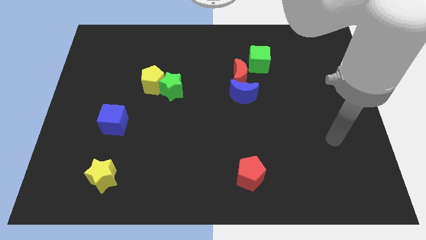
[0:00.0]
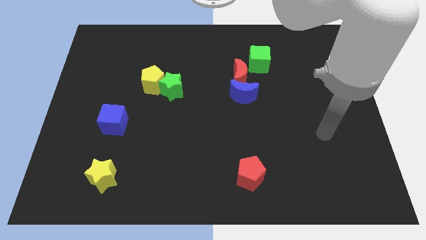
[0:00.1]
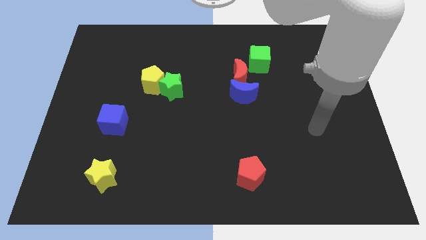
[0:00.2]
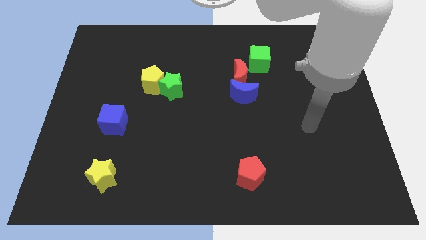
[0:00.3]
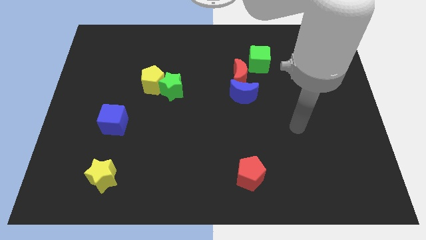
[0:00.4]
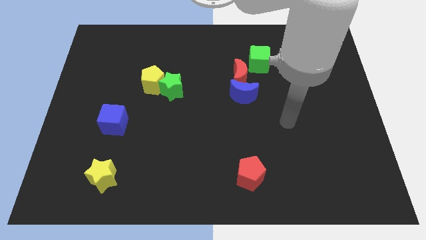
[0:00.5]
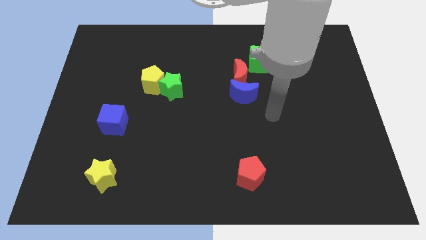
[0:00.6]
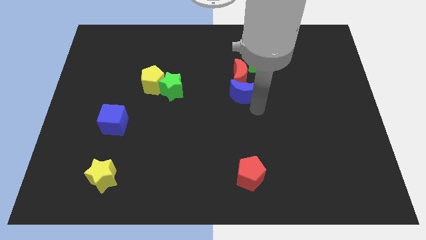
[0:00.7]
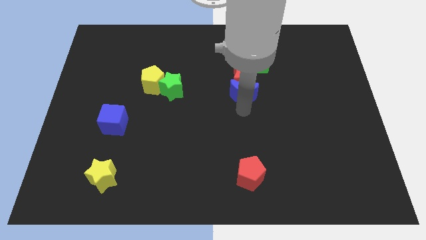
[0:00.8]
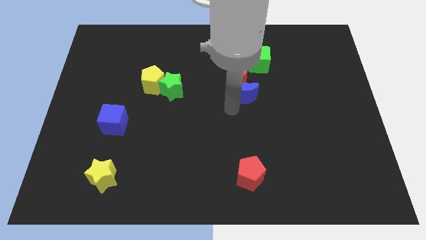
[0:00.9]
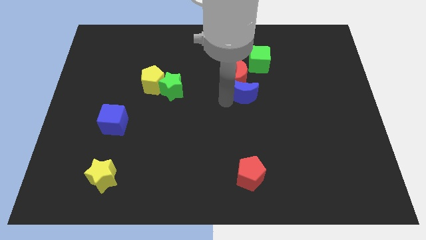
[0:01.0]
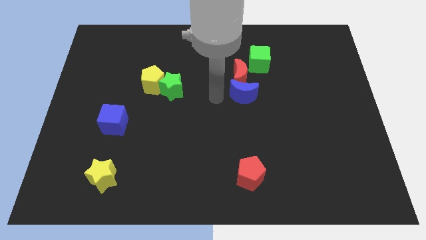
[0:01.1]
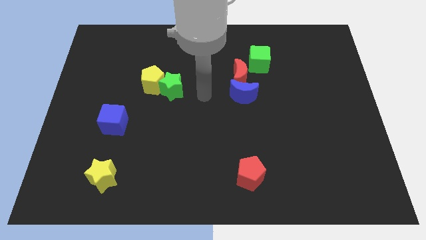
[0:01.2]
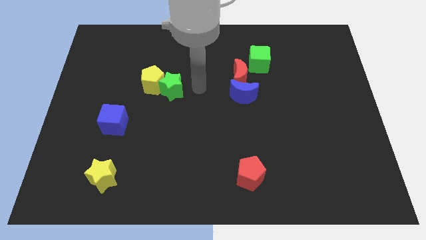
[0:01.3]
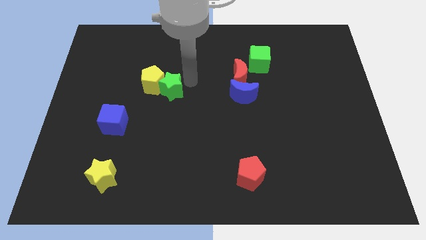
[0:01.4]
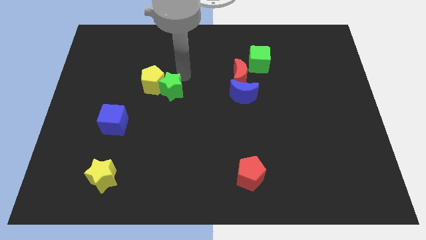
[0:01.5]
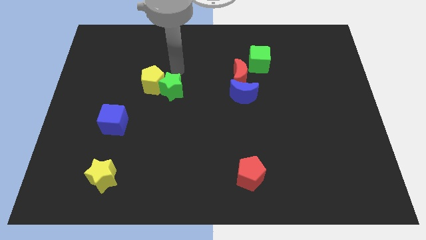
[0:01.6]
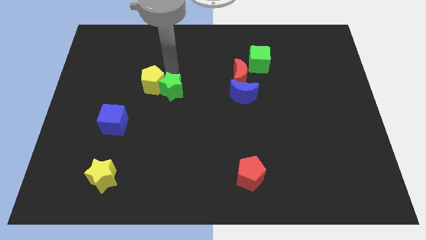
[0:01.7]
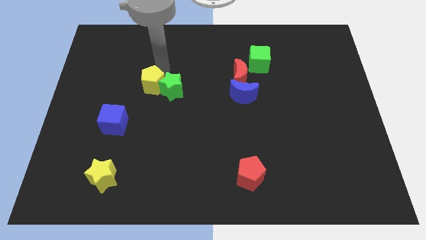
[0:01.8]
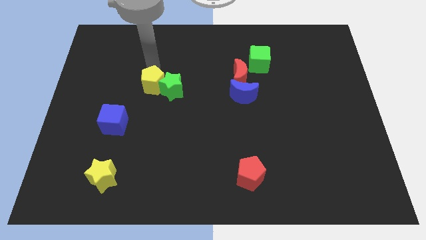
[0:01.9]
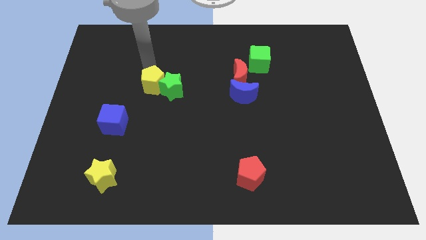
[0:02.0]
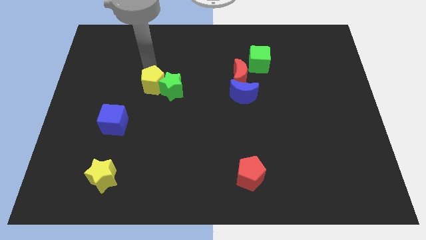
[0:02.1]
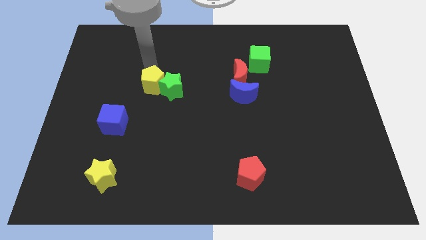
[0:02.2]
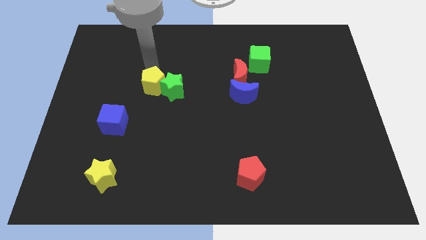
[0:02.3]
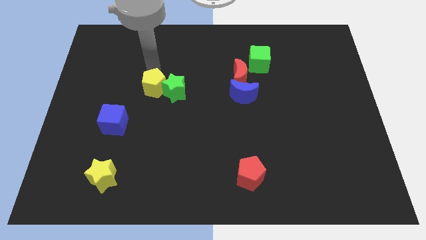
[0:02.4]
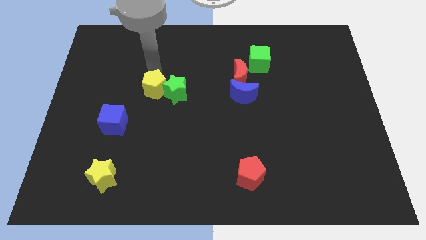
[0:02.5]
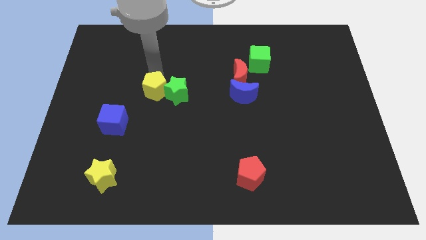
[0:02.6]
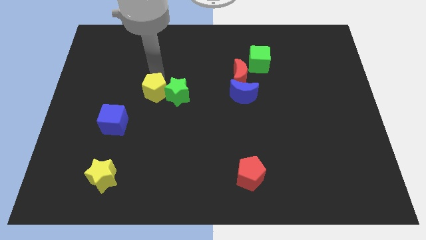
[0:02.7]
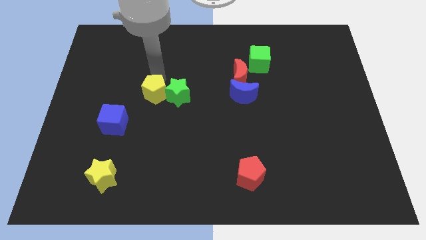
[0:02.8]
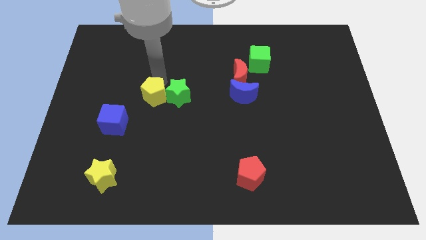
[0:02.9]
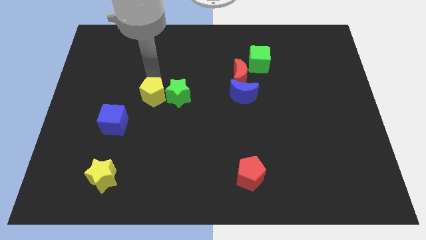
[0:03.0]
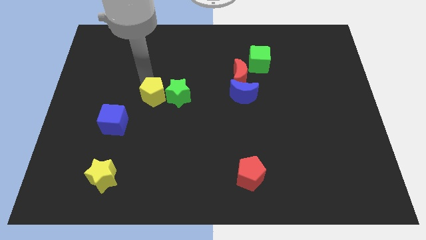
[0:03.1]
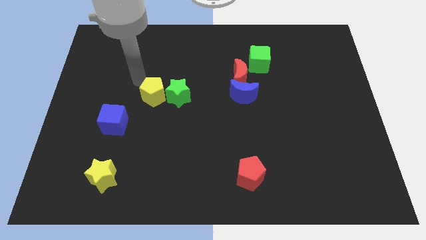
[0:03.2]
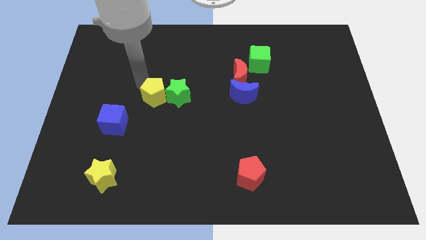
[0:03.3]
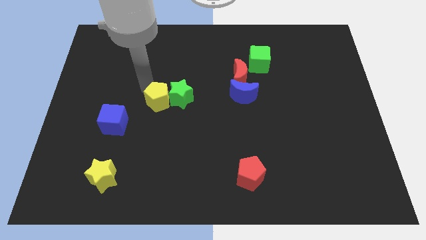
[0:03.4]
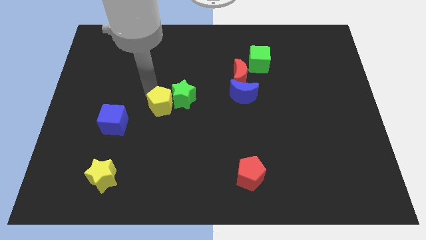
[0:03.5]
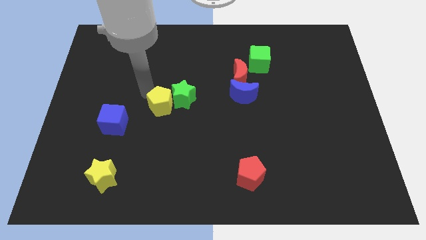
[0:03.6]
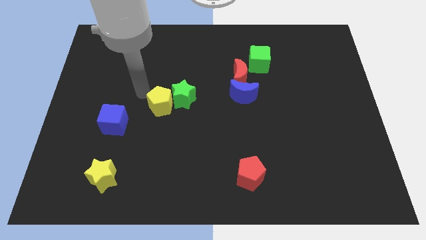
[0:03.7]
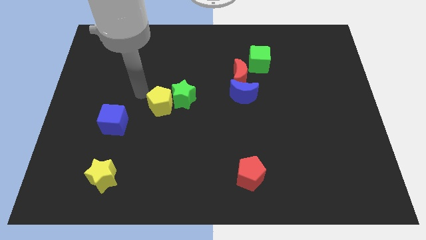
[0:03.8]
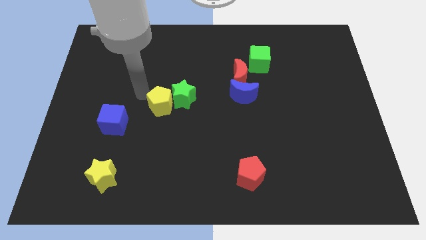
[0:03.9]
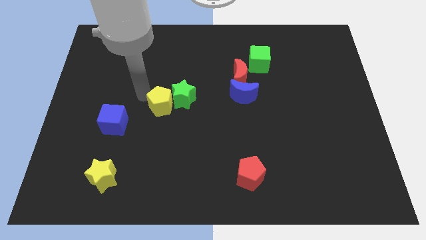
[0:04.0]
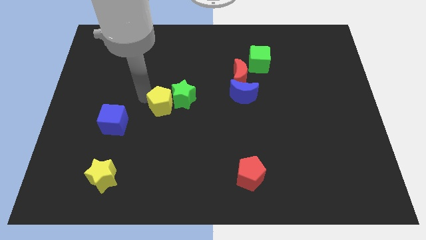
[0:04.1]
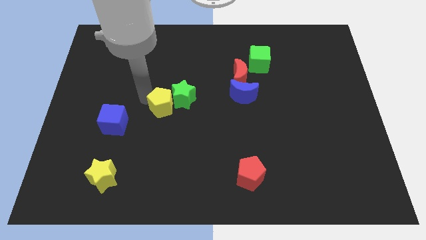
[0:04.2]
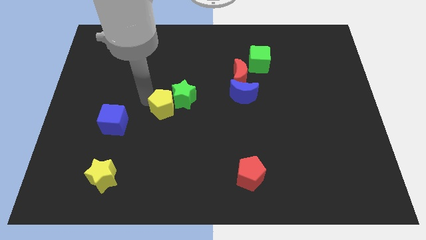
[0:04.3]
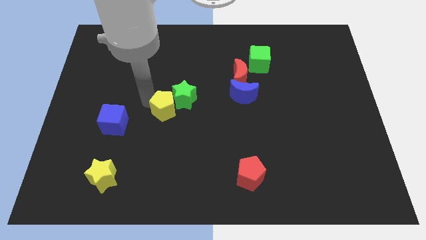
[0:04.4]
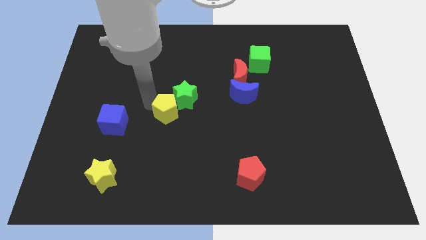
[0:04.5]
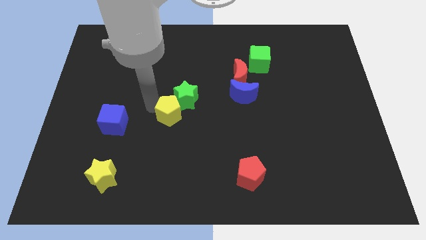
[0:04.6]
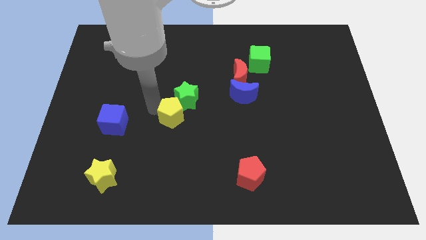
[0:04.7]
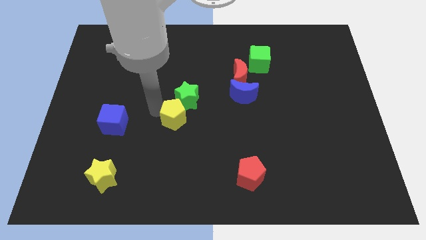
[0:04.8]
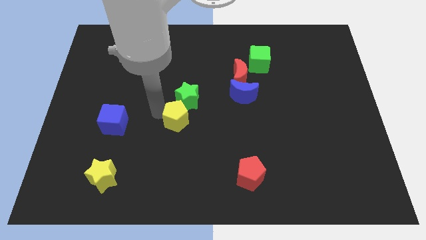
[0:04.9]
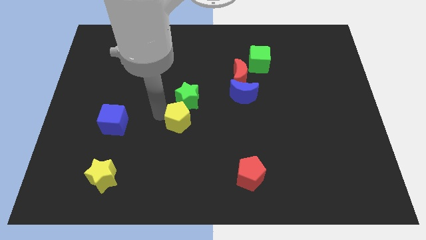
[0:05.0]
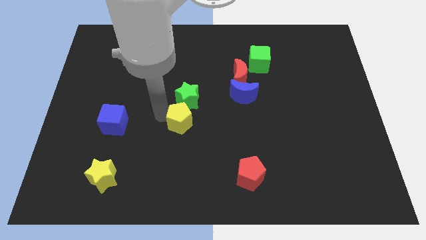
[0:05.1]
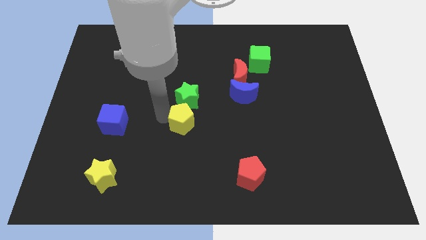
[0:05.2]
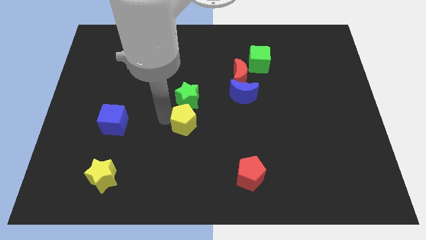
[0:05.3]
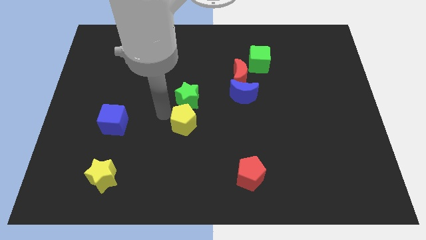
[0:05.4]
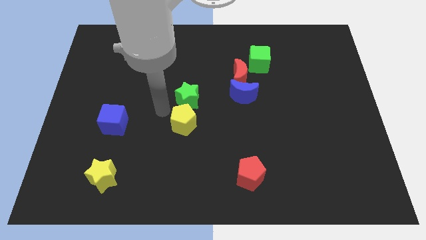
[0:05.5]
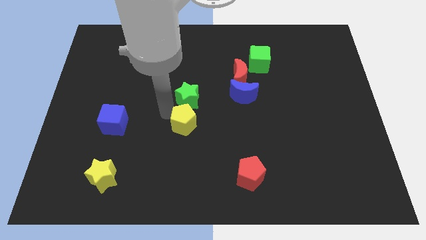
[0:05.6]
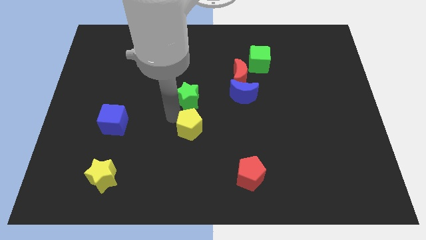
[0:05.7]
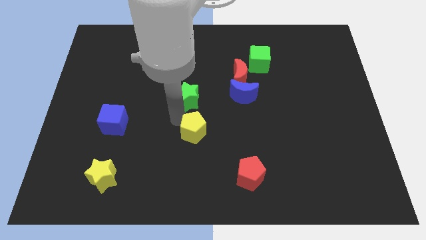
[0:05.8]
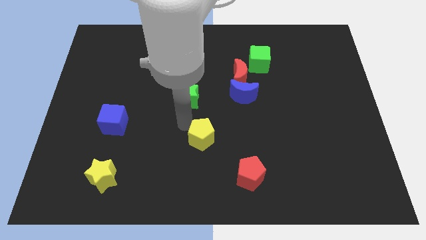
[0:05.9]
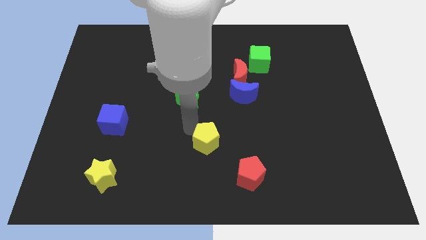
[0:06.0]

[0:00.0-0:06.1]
slide the yellow pentagon to the top left side of the red pentagon
